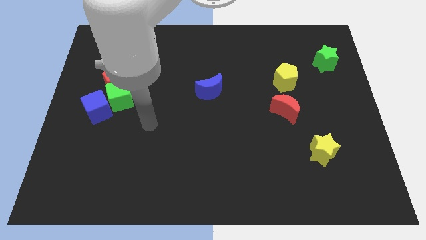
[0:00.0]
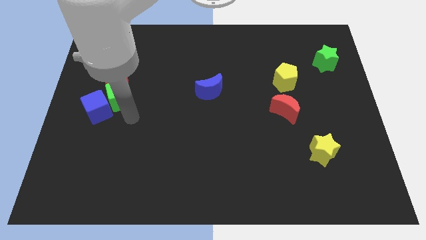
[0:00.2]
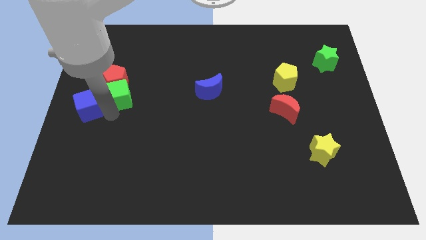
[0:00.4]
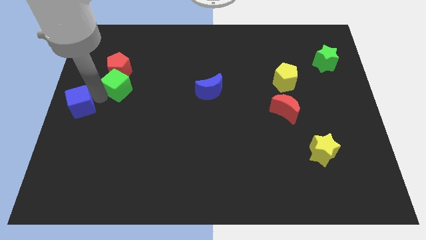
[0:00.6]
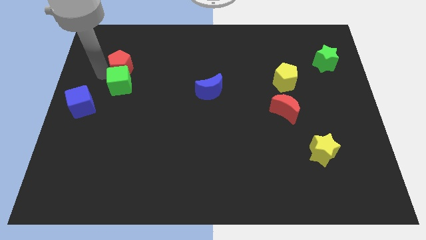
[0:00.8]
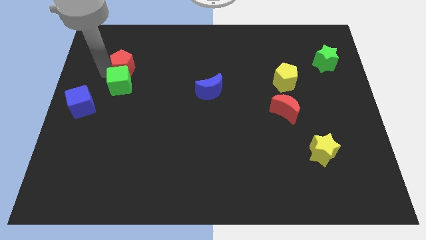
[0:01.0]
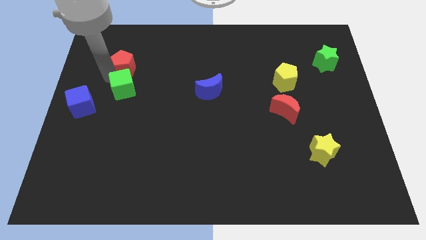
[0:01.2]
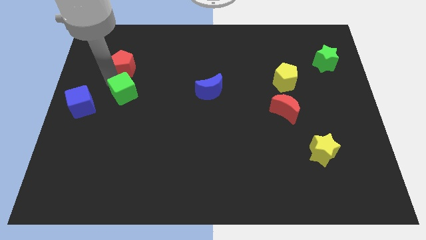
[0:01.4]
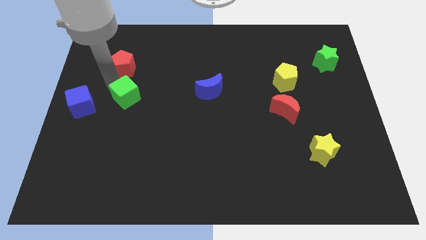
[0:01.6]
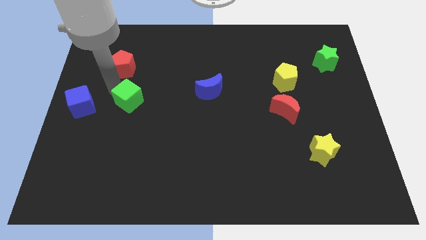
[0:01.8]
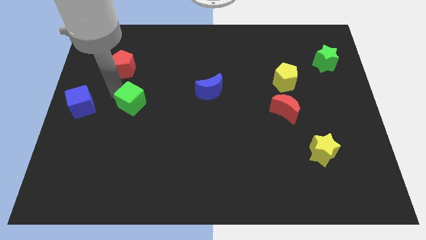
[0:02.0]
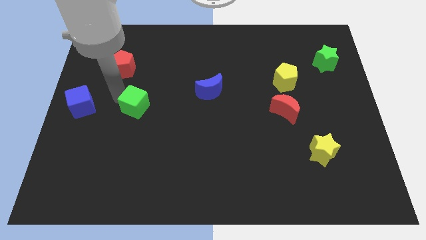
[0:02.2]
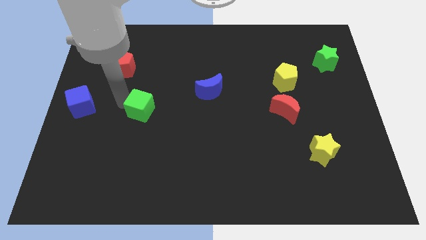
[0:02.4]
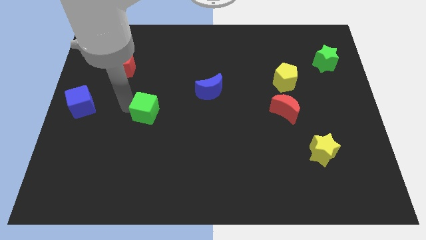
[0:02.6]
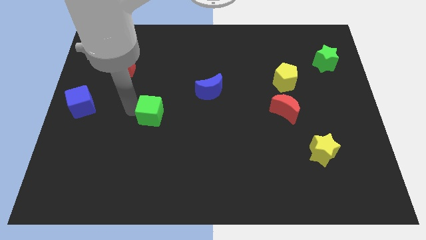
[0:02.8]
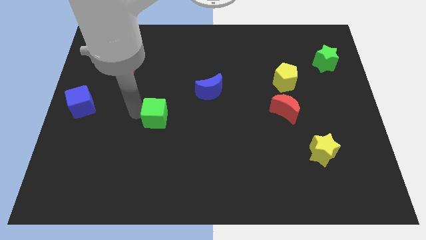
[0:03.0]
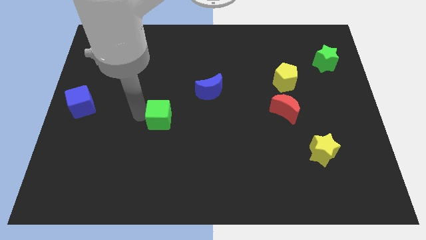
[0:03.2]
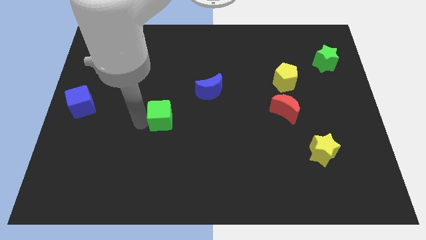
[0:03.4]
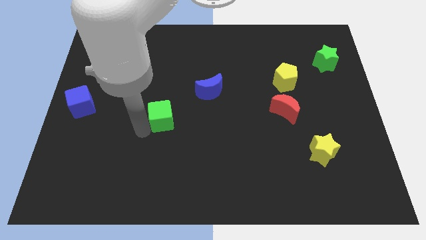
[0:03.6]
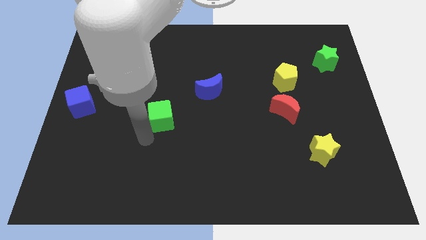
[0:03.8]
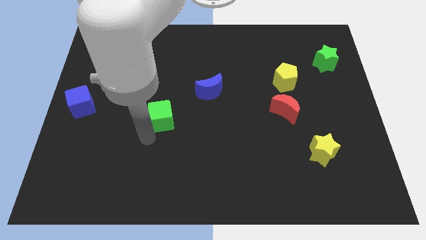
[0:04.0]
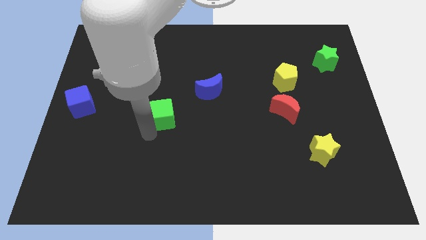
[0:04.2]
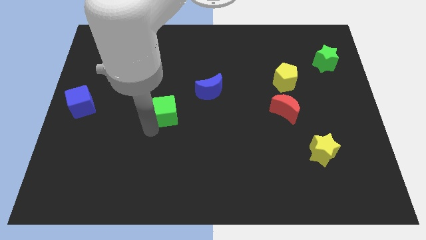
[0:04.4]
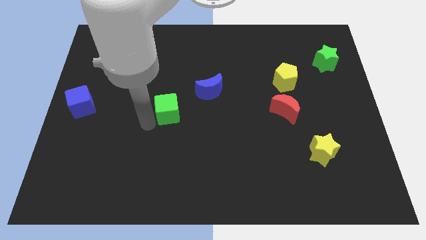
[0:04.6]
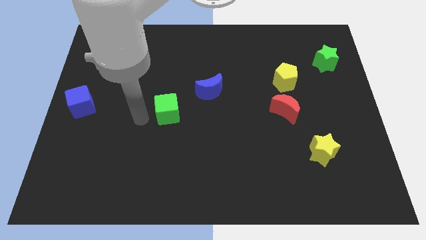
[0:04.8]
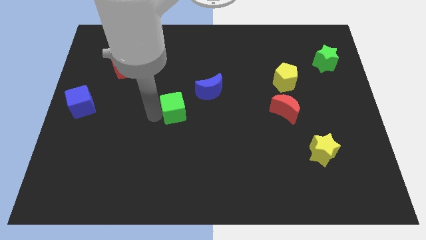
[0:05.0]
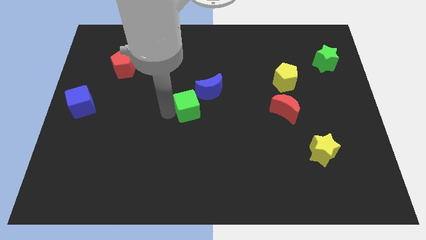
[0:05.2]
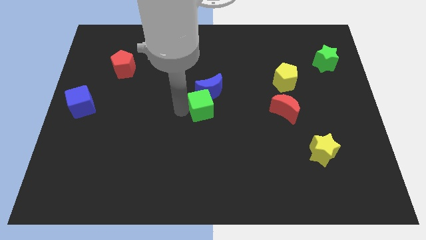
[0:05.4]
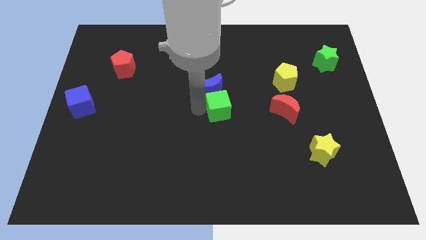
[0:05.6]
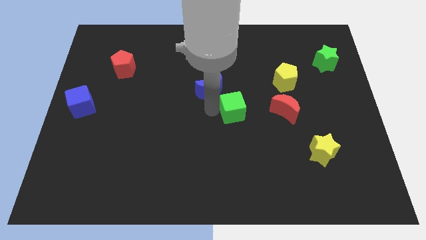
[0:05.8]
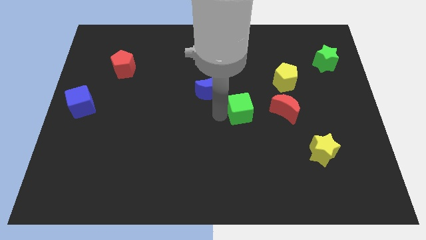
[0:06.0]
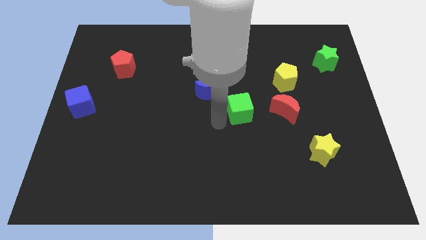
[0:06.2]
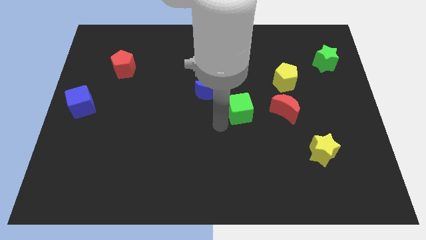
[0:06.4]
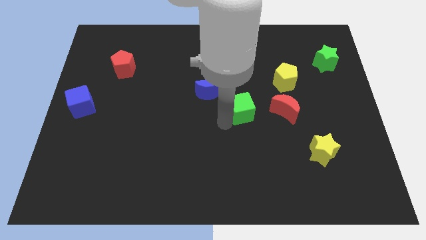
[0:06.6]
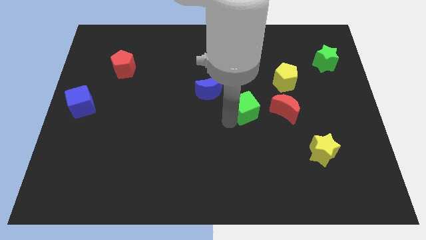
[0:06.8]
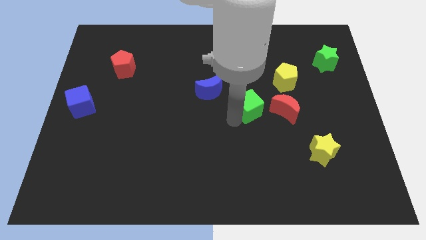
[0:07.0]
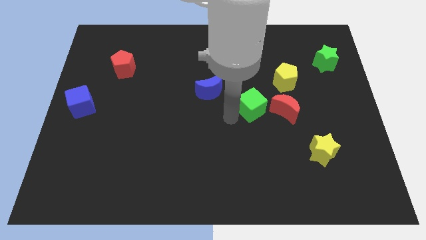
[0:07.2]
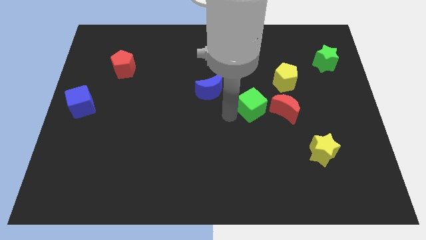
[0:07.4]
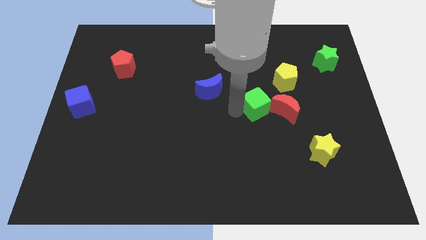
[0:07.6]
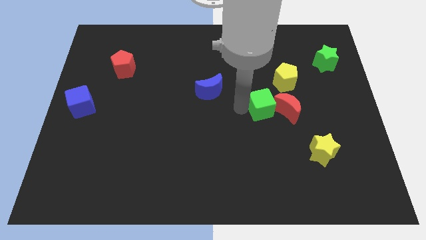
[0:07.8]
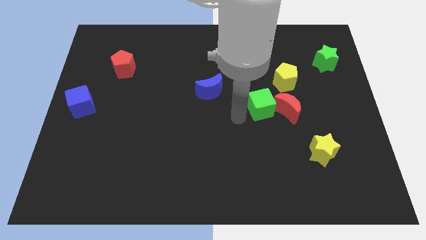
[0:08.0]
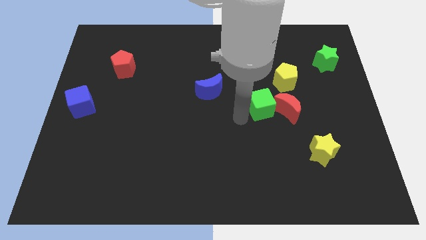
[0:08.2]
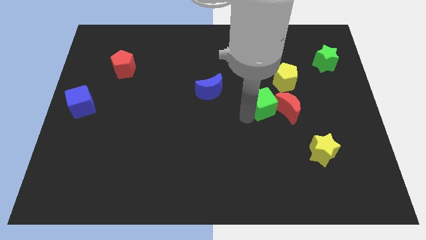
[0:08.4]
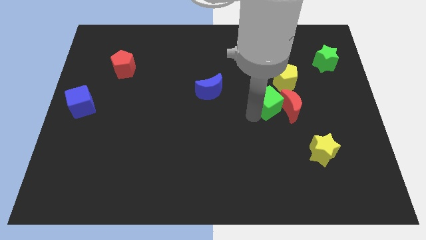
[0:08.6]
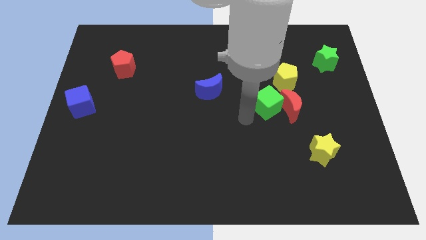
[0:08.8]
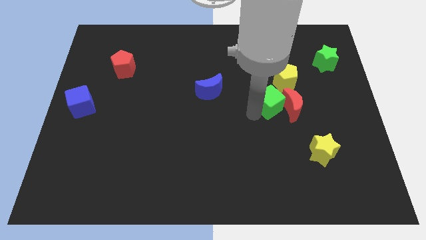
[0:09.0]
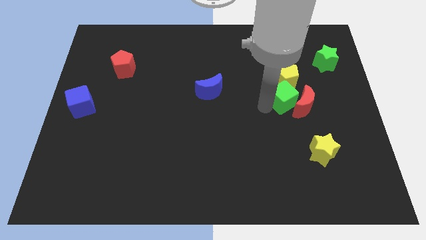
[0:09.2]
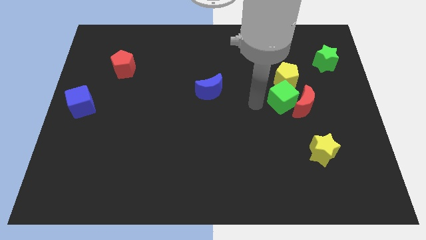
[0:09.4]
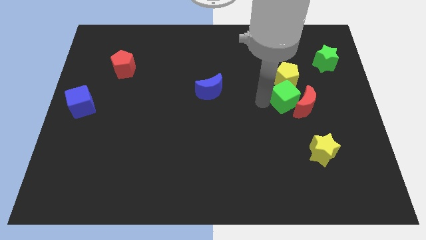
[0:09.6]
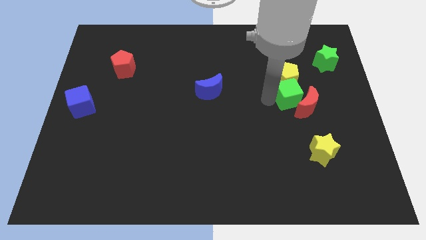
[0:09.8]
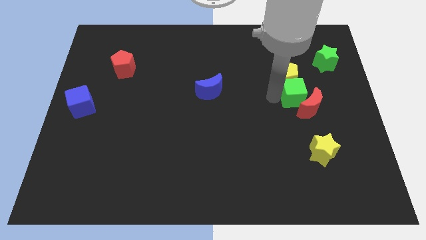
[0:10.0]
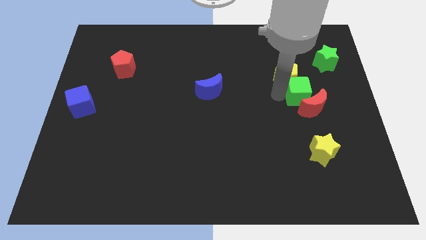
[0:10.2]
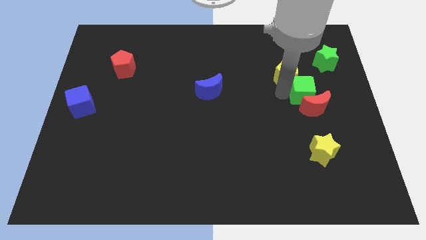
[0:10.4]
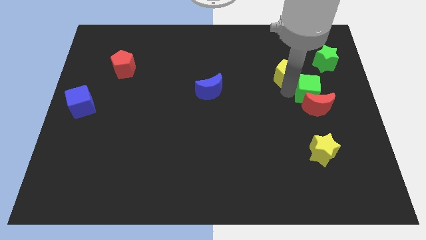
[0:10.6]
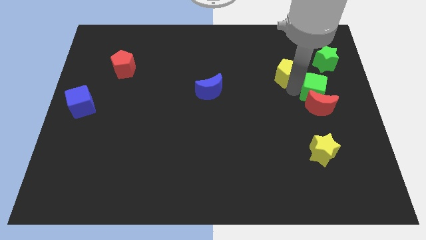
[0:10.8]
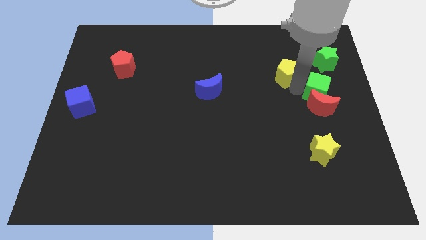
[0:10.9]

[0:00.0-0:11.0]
move the green cube to the center right

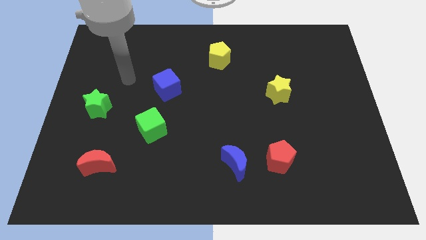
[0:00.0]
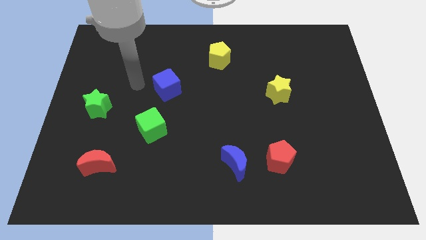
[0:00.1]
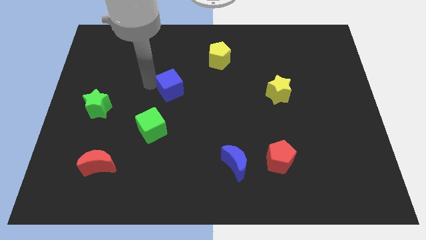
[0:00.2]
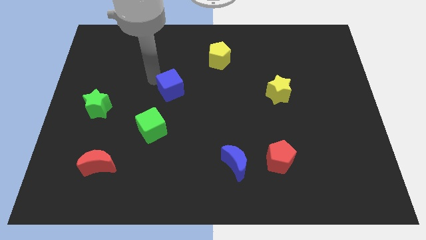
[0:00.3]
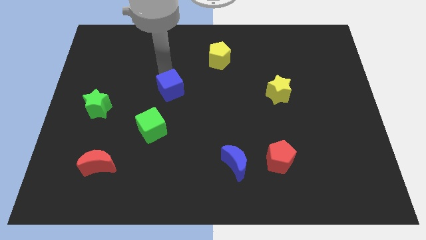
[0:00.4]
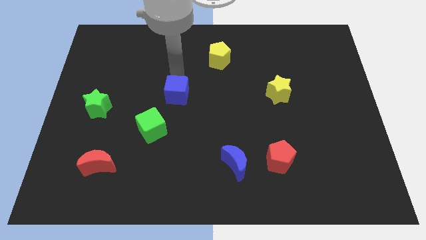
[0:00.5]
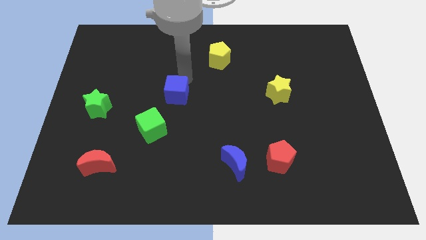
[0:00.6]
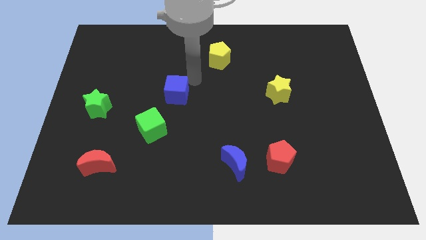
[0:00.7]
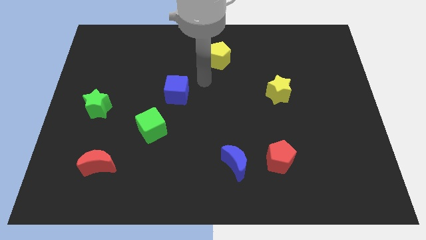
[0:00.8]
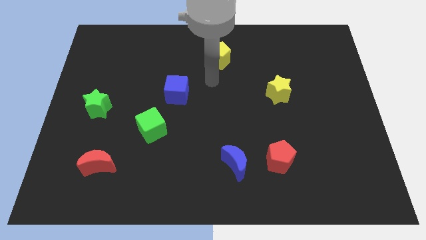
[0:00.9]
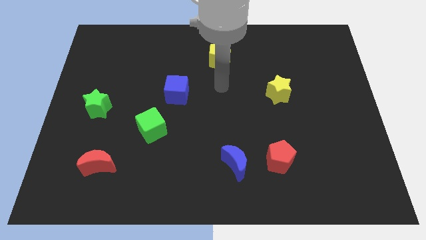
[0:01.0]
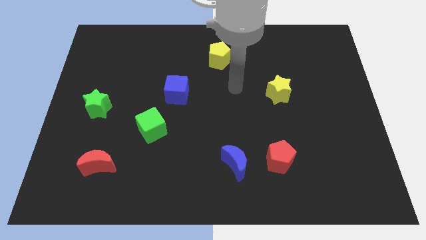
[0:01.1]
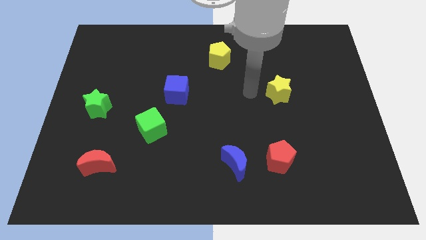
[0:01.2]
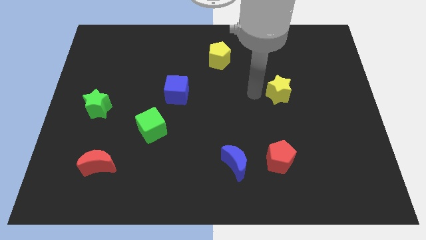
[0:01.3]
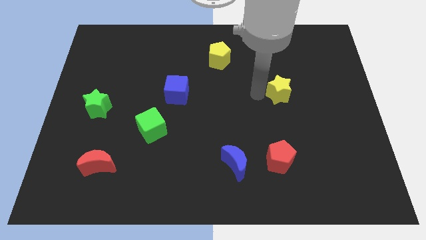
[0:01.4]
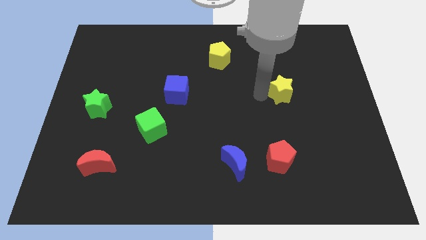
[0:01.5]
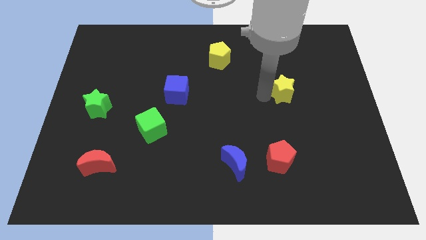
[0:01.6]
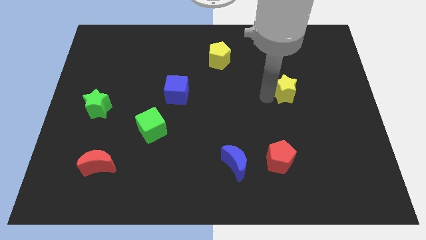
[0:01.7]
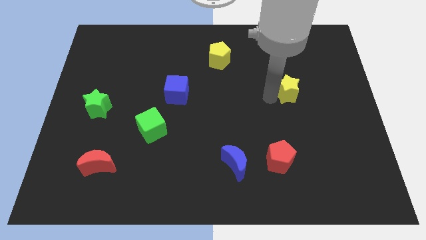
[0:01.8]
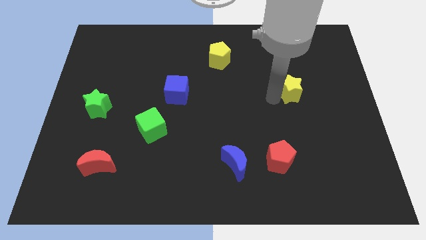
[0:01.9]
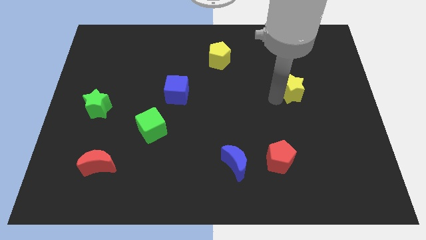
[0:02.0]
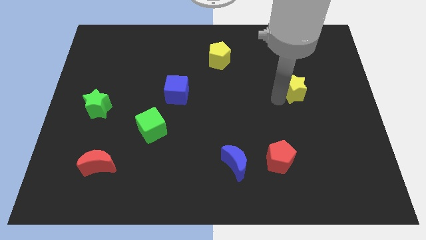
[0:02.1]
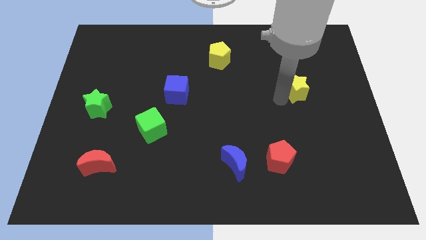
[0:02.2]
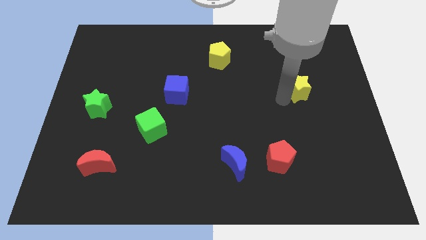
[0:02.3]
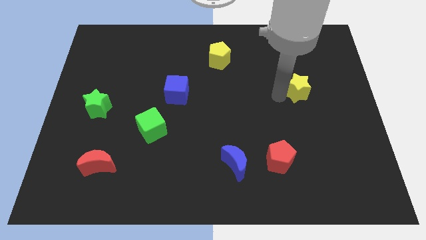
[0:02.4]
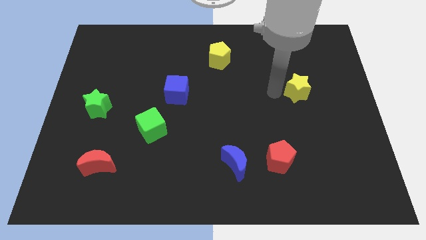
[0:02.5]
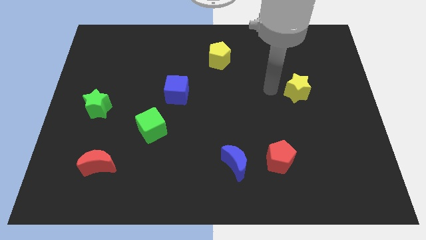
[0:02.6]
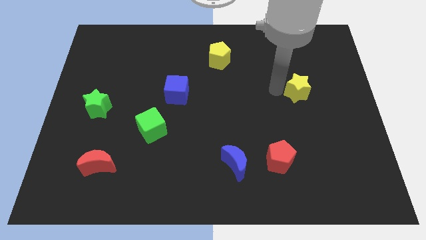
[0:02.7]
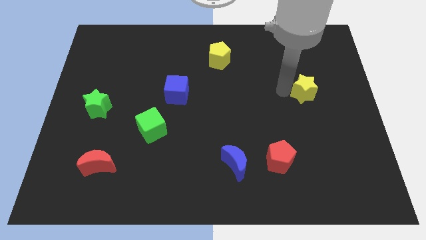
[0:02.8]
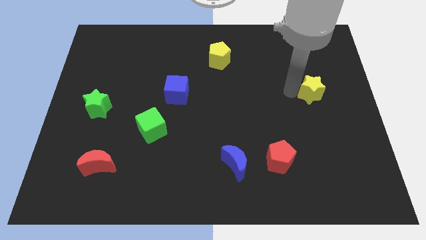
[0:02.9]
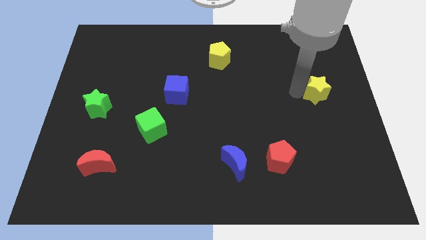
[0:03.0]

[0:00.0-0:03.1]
put the yellow star to the right side of the board
